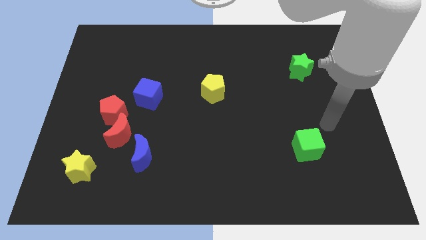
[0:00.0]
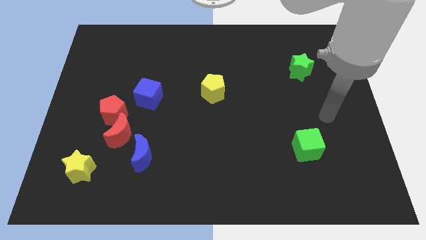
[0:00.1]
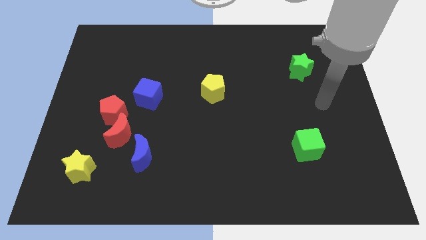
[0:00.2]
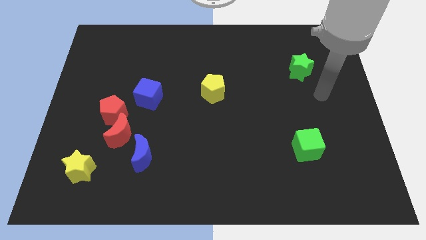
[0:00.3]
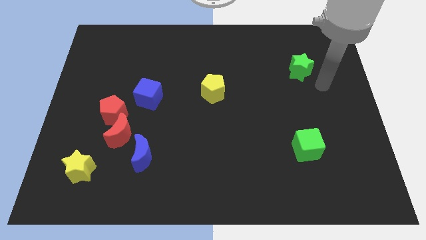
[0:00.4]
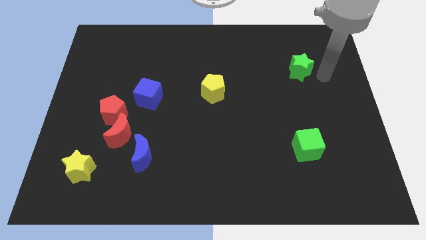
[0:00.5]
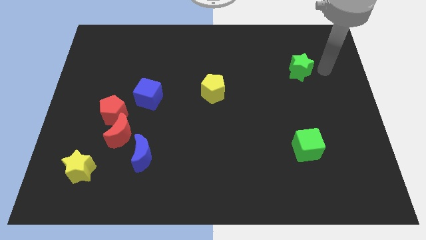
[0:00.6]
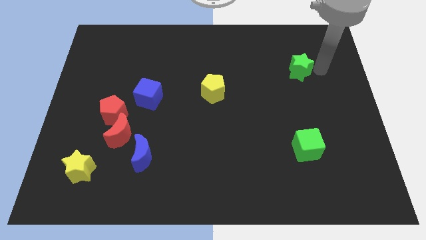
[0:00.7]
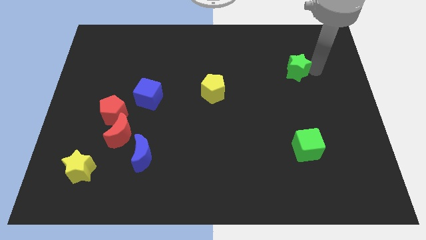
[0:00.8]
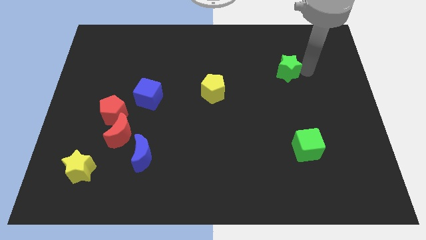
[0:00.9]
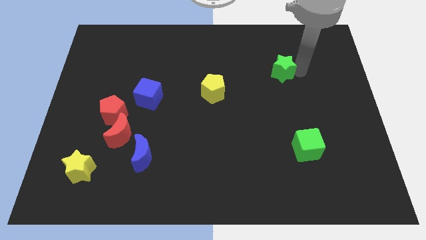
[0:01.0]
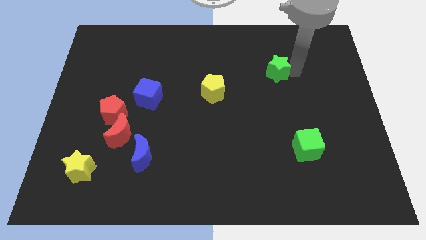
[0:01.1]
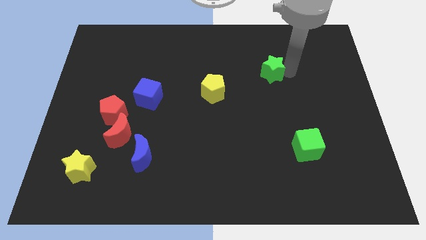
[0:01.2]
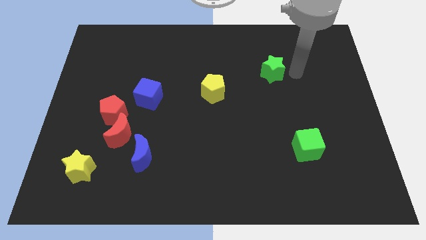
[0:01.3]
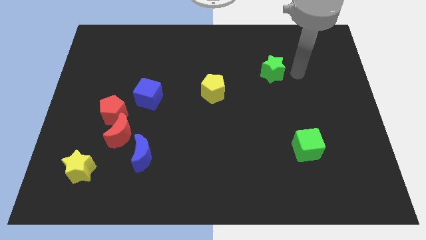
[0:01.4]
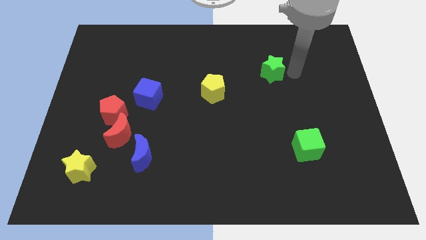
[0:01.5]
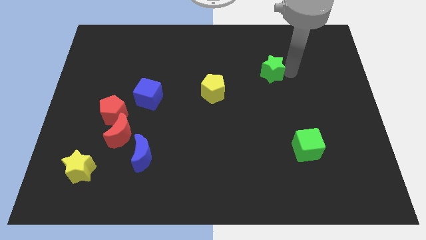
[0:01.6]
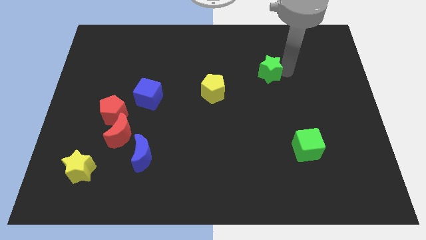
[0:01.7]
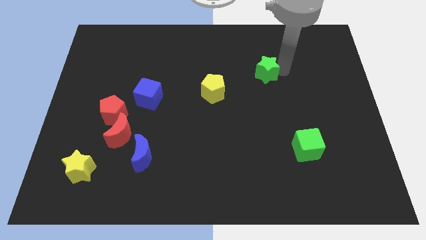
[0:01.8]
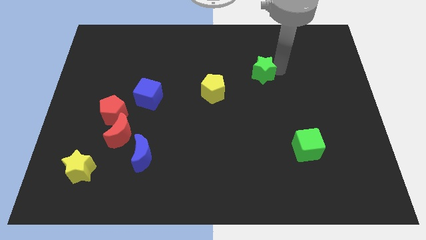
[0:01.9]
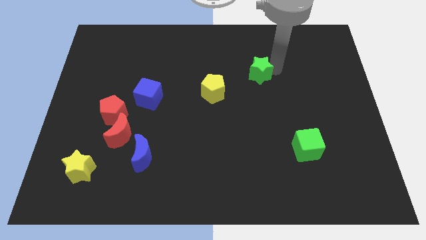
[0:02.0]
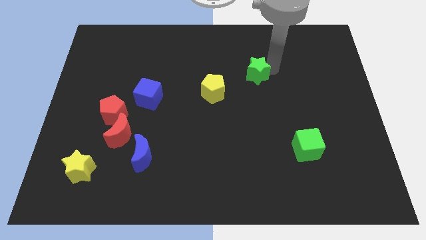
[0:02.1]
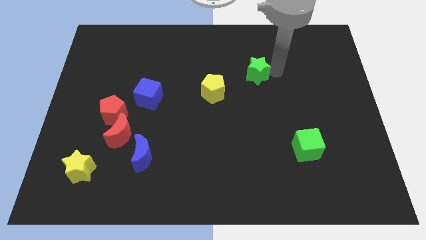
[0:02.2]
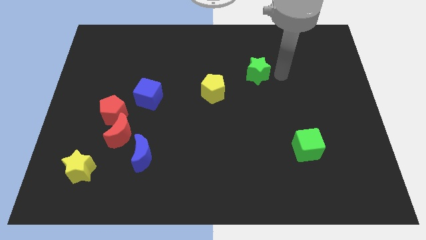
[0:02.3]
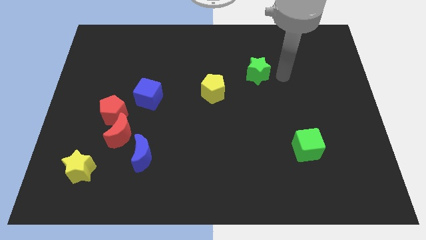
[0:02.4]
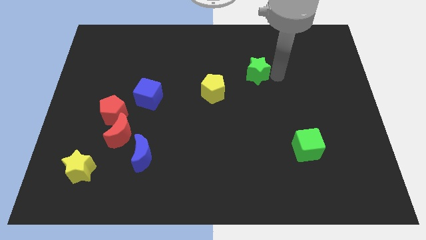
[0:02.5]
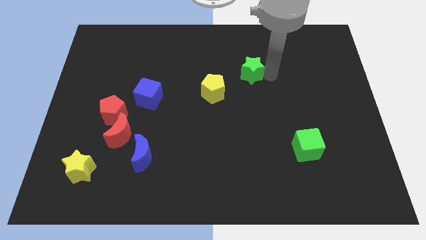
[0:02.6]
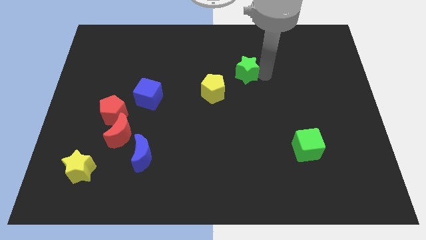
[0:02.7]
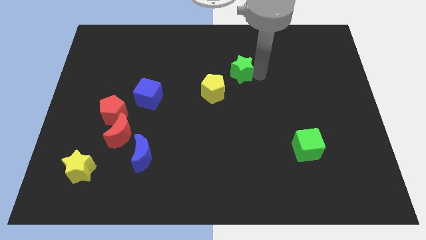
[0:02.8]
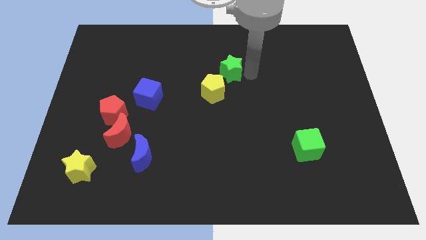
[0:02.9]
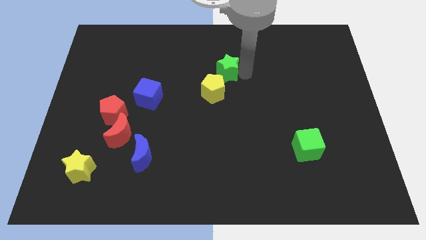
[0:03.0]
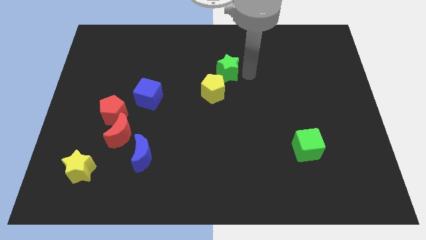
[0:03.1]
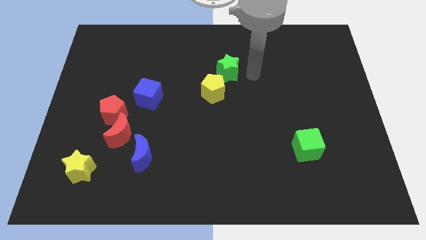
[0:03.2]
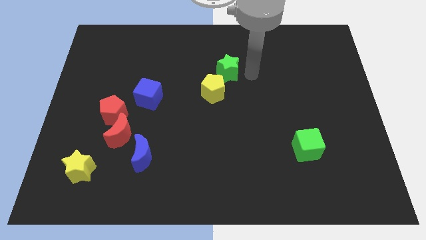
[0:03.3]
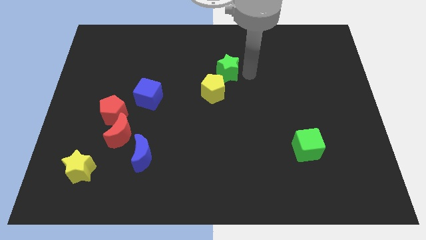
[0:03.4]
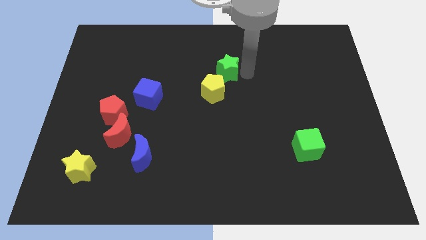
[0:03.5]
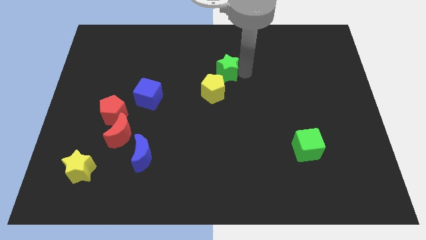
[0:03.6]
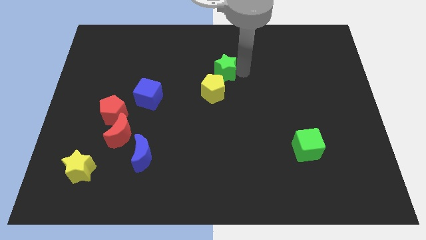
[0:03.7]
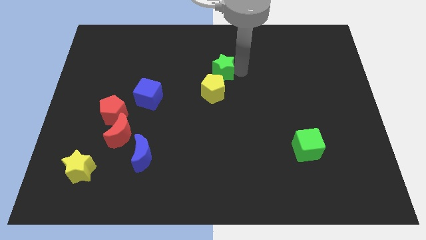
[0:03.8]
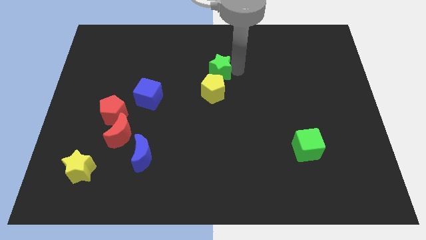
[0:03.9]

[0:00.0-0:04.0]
push the green star to the left

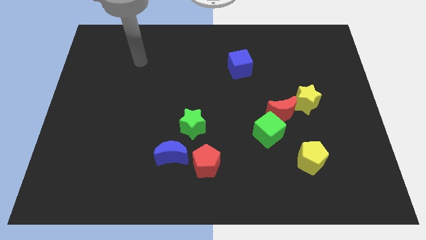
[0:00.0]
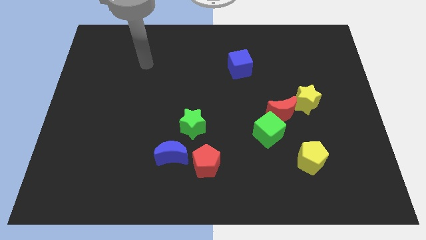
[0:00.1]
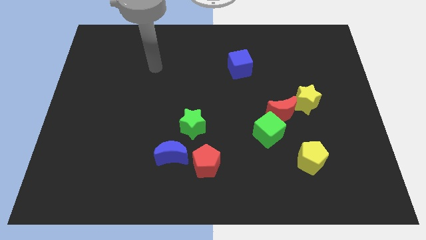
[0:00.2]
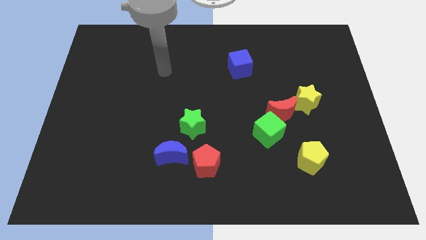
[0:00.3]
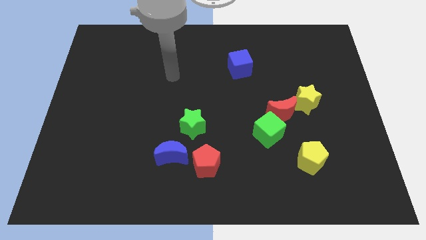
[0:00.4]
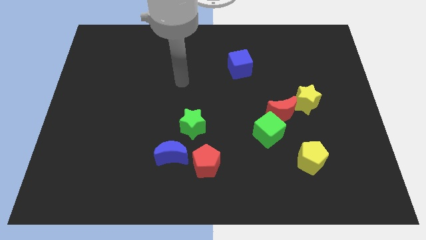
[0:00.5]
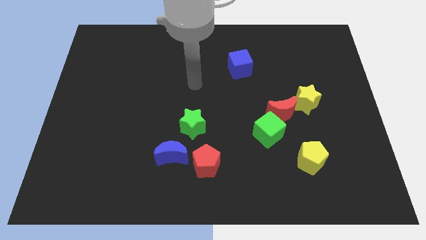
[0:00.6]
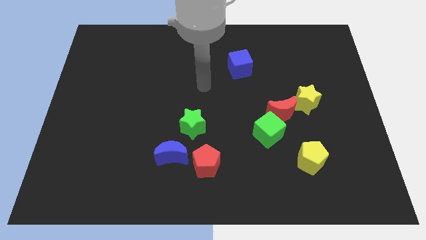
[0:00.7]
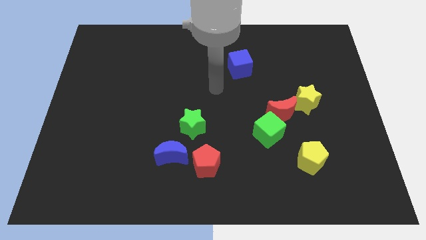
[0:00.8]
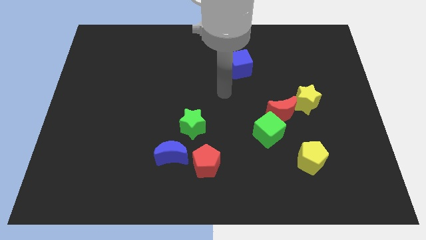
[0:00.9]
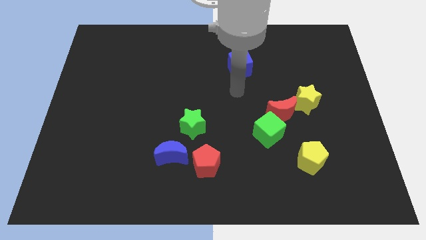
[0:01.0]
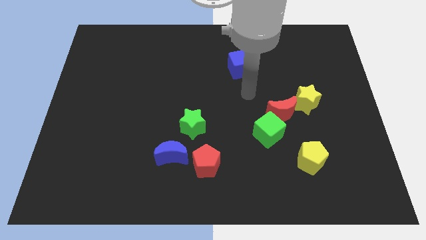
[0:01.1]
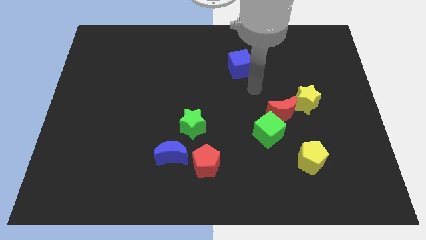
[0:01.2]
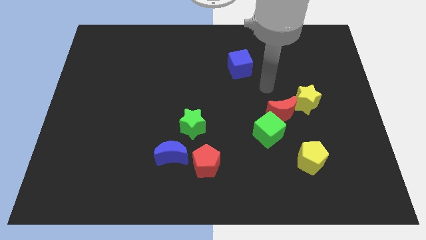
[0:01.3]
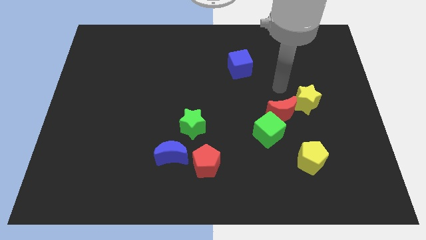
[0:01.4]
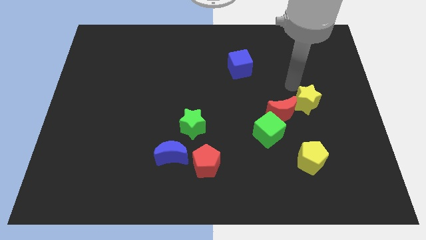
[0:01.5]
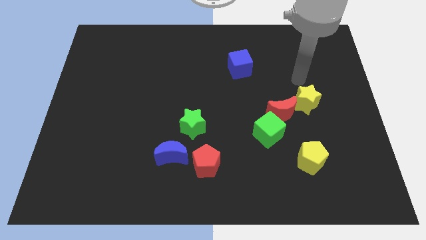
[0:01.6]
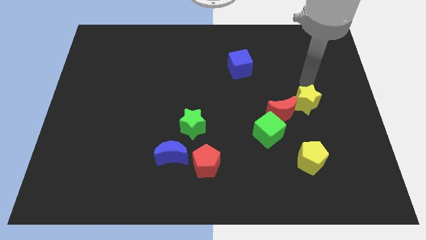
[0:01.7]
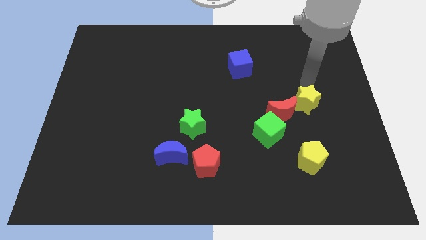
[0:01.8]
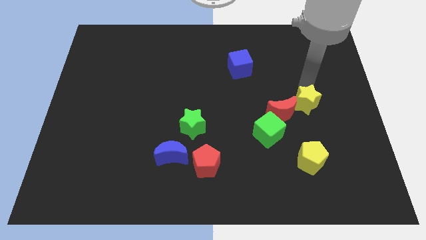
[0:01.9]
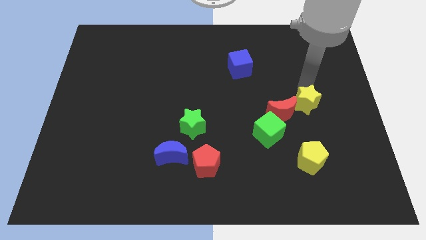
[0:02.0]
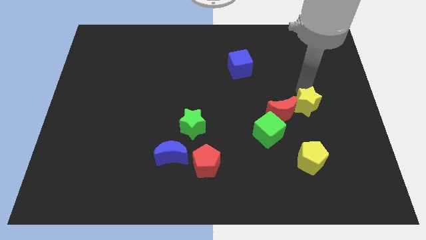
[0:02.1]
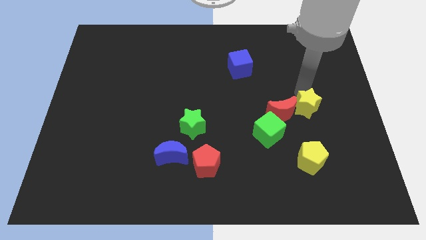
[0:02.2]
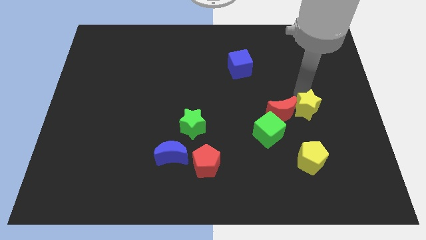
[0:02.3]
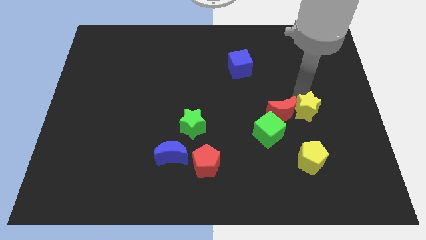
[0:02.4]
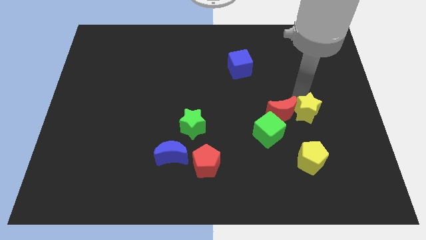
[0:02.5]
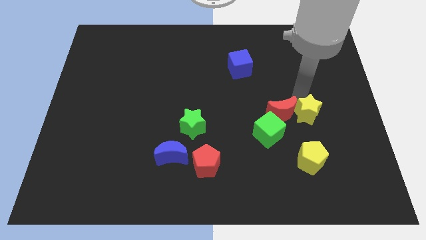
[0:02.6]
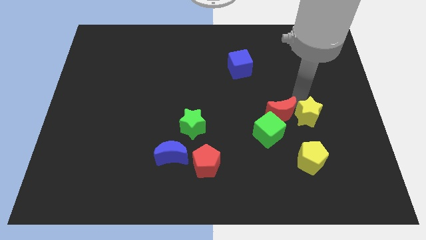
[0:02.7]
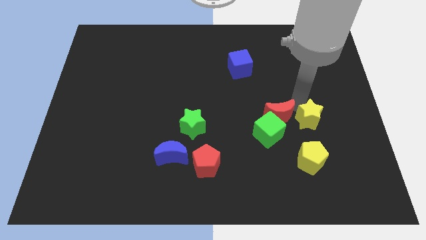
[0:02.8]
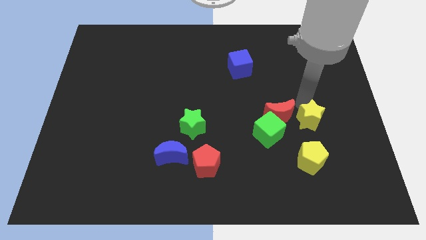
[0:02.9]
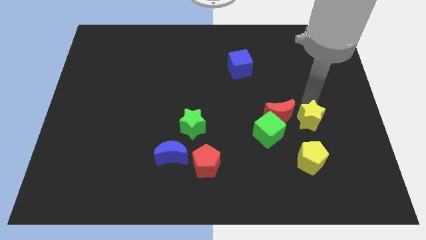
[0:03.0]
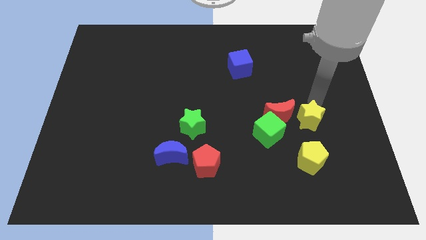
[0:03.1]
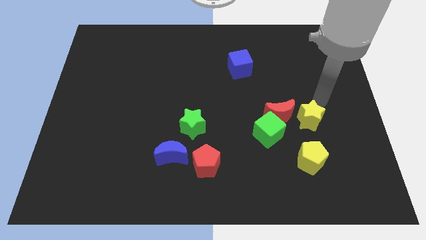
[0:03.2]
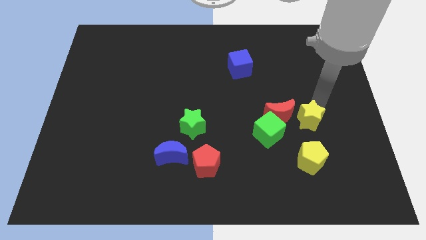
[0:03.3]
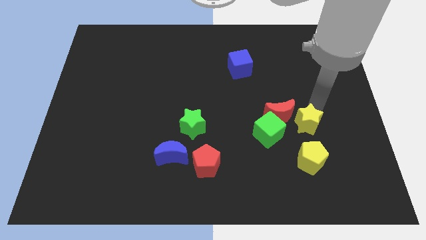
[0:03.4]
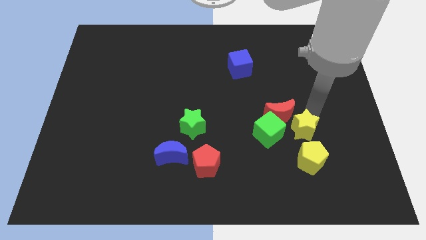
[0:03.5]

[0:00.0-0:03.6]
move the yellow star a little bit down

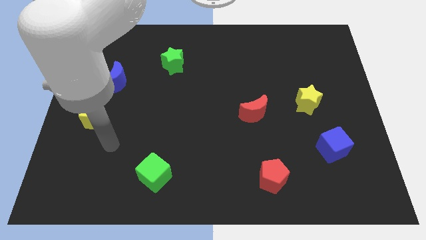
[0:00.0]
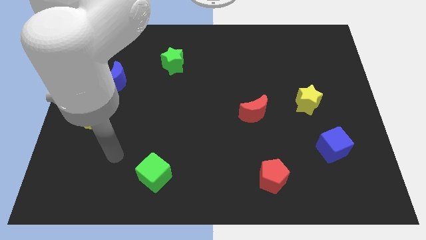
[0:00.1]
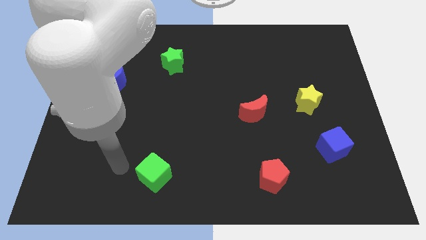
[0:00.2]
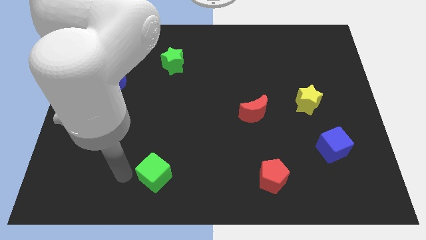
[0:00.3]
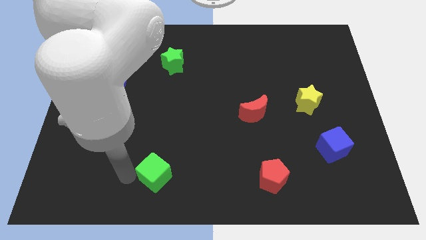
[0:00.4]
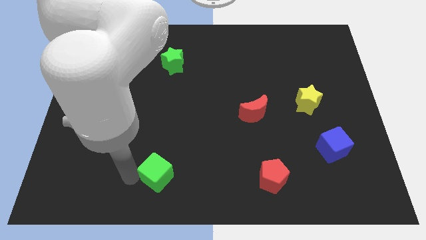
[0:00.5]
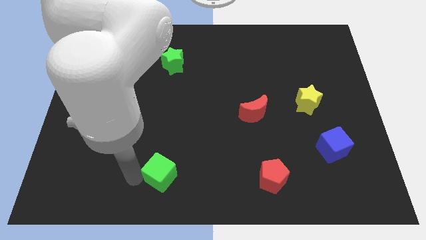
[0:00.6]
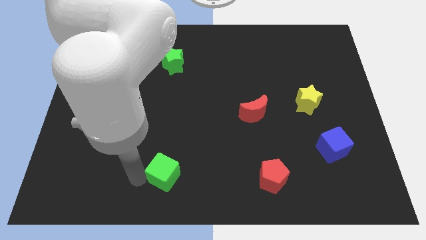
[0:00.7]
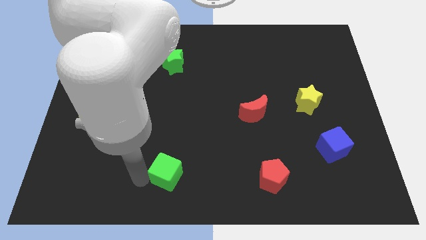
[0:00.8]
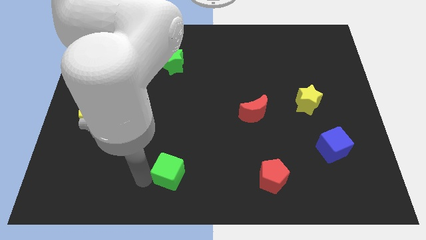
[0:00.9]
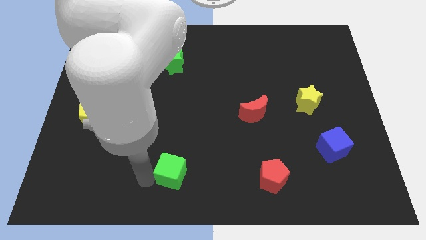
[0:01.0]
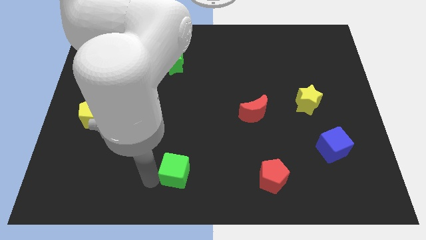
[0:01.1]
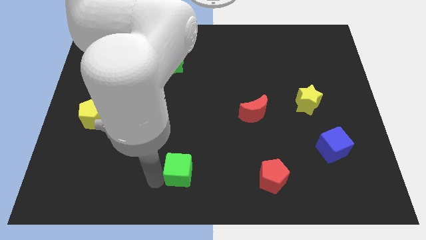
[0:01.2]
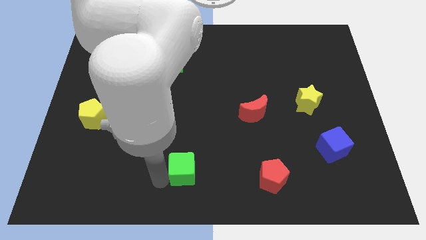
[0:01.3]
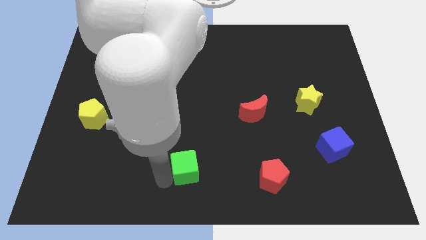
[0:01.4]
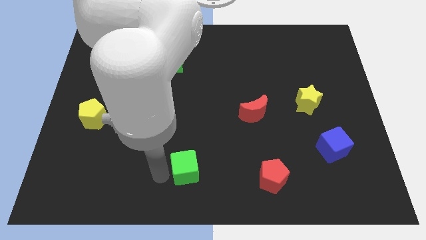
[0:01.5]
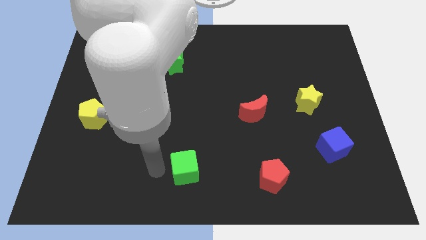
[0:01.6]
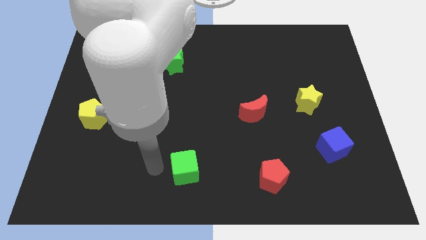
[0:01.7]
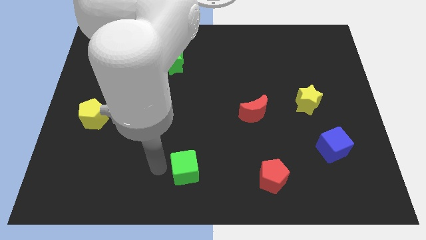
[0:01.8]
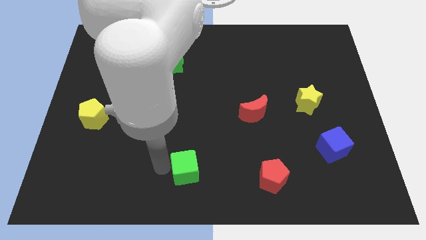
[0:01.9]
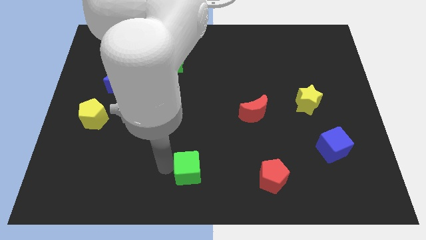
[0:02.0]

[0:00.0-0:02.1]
push the green cube to the right a bit
